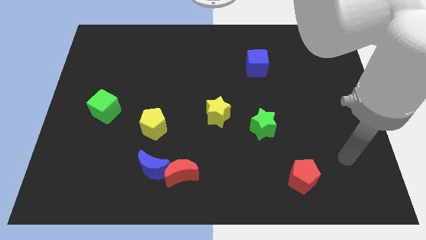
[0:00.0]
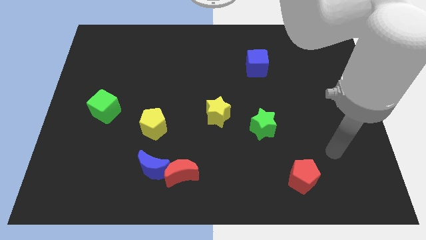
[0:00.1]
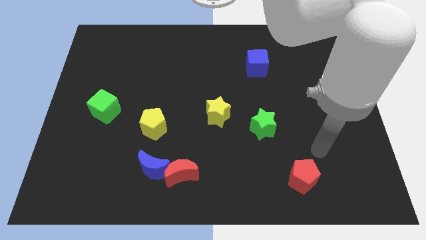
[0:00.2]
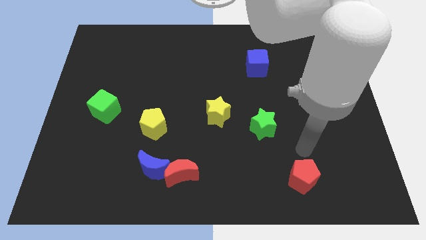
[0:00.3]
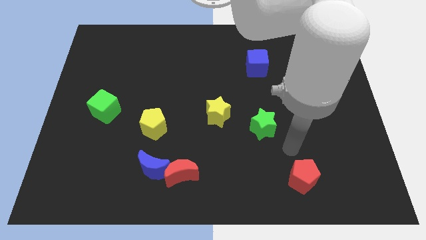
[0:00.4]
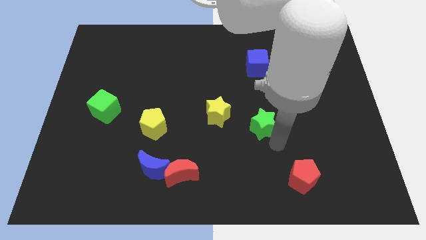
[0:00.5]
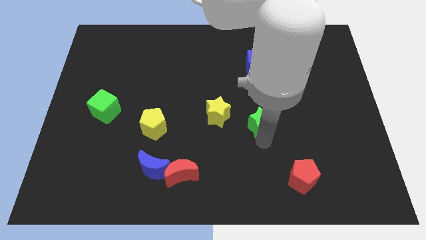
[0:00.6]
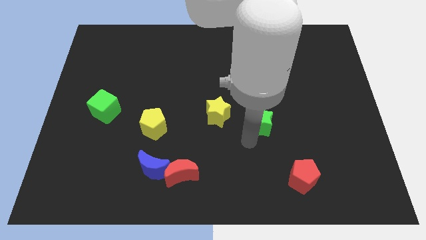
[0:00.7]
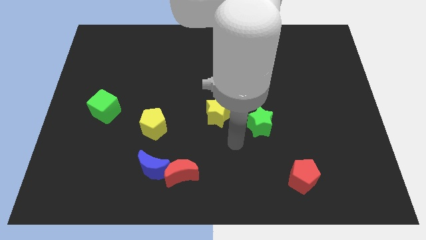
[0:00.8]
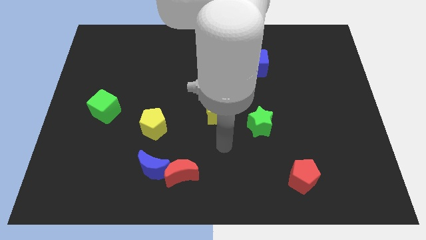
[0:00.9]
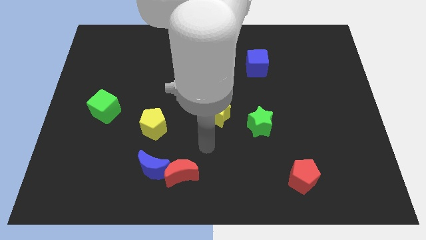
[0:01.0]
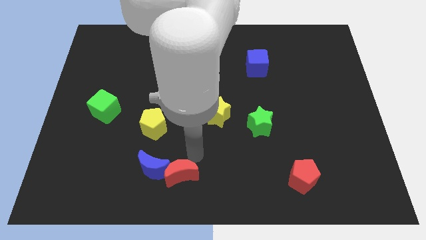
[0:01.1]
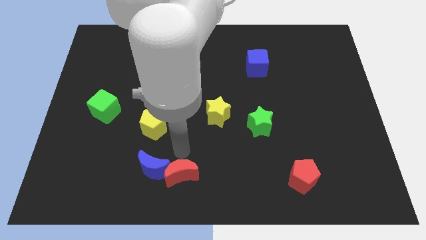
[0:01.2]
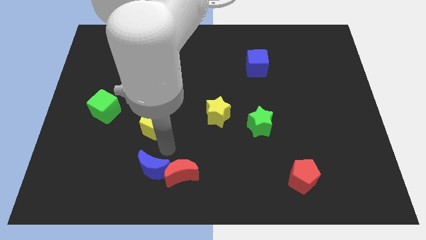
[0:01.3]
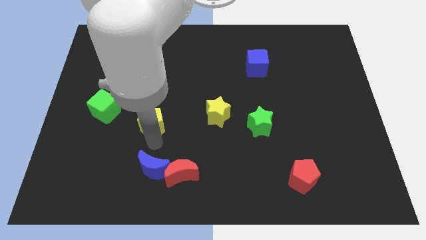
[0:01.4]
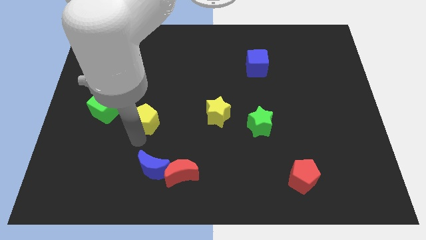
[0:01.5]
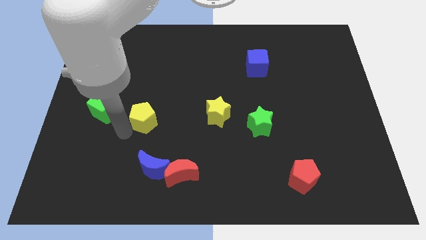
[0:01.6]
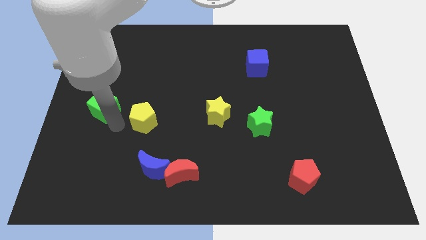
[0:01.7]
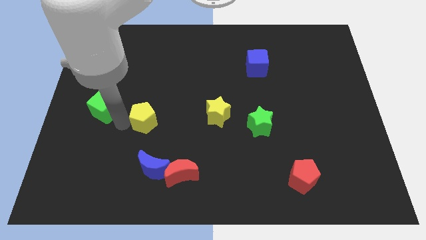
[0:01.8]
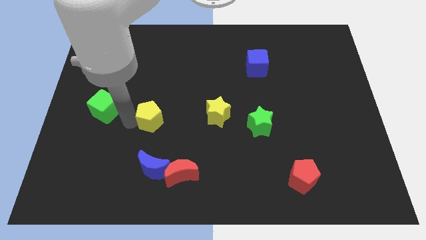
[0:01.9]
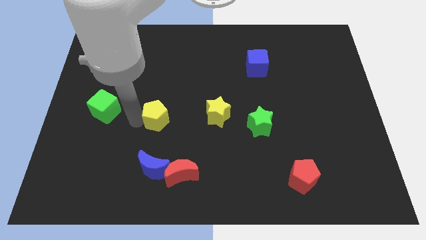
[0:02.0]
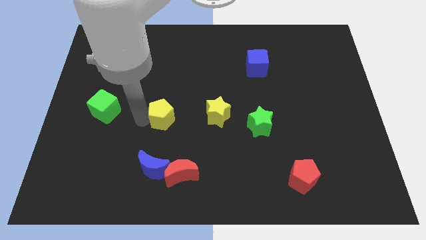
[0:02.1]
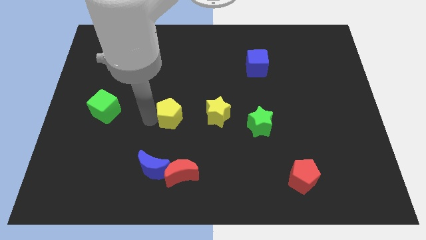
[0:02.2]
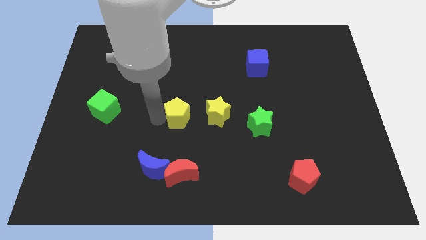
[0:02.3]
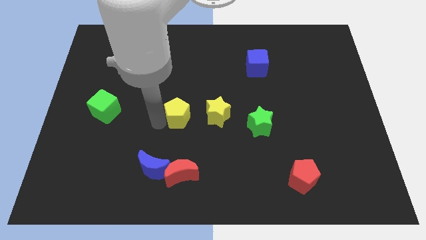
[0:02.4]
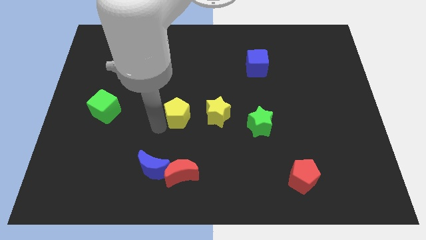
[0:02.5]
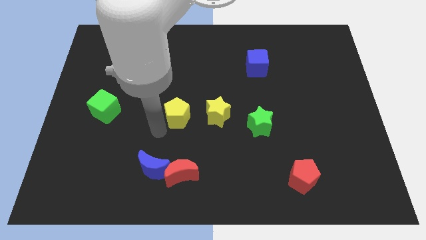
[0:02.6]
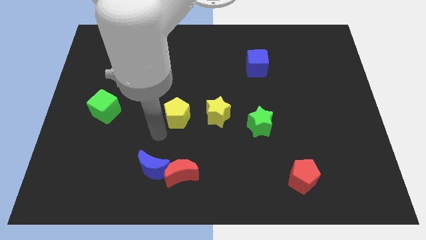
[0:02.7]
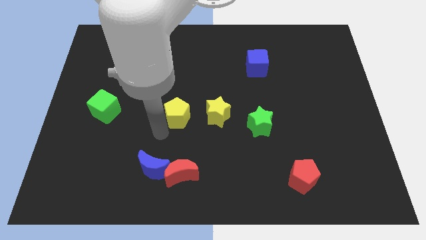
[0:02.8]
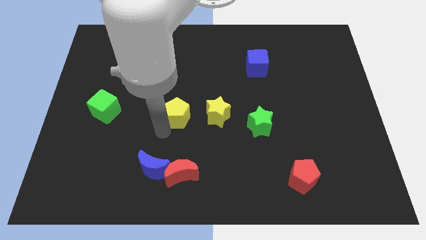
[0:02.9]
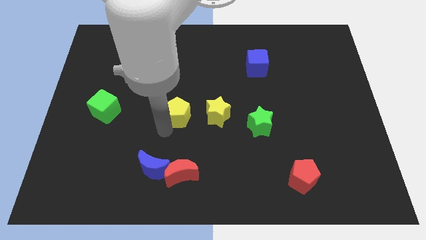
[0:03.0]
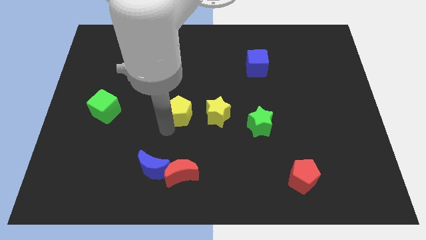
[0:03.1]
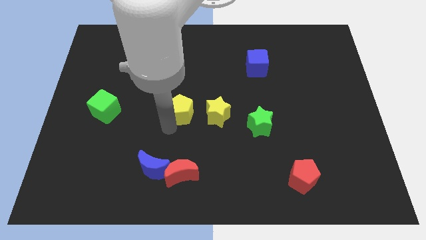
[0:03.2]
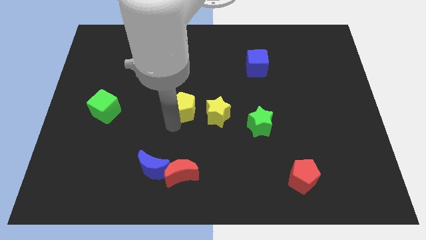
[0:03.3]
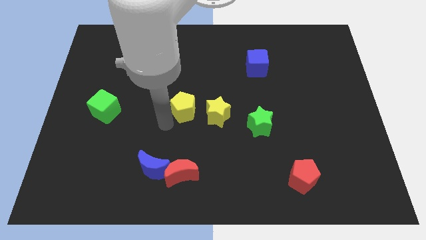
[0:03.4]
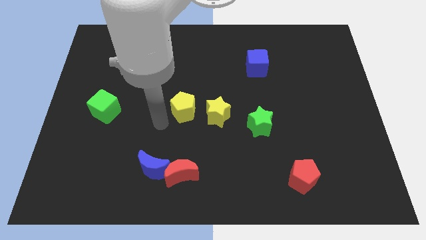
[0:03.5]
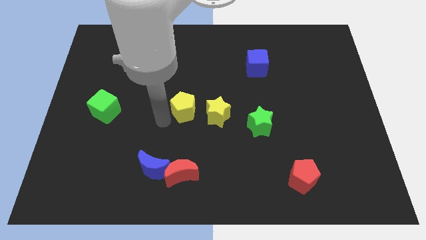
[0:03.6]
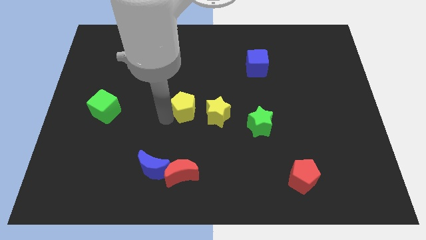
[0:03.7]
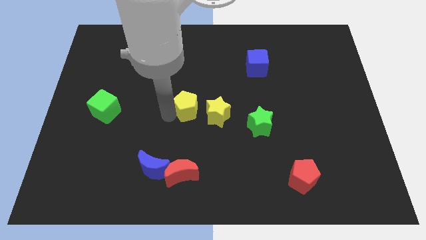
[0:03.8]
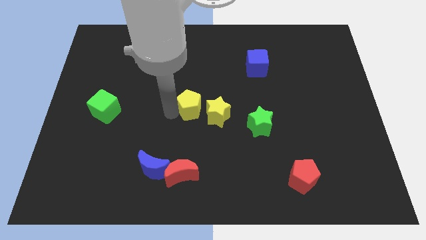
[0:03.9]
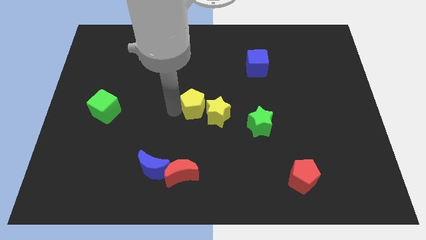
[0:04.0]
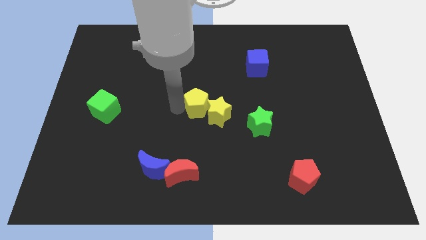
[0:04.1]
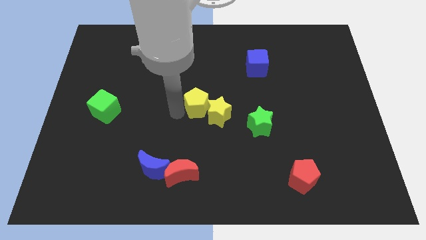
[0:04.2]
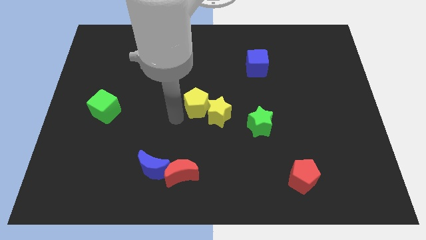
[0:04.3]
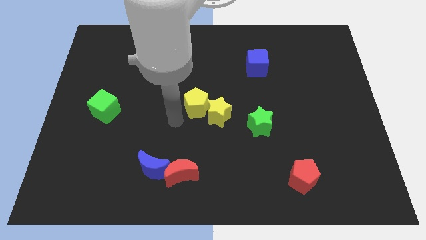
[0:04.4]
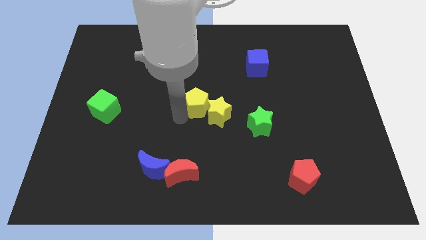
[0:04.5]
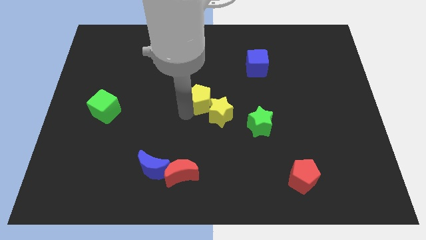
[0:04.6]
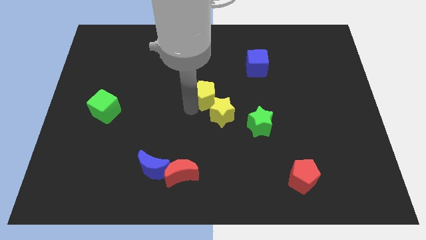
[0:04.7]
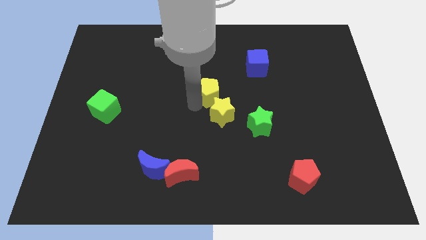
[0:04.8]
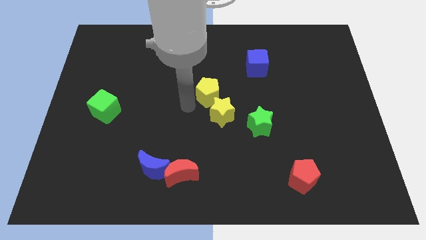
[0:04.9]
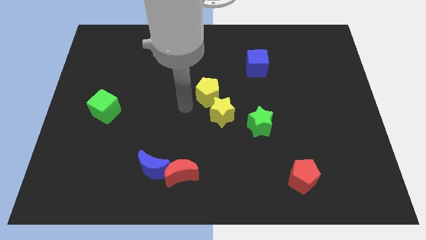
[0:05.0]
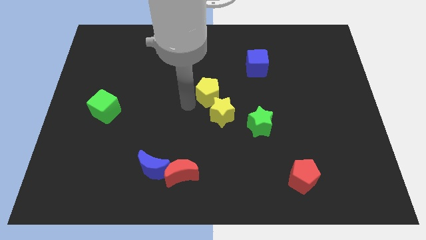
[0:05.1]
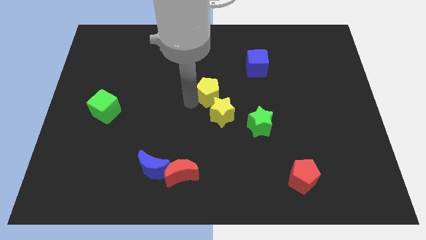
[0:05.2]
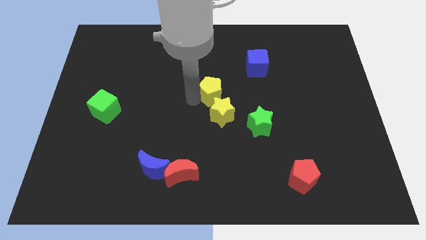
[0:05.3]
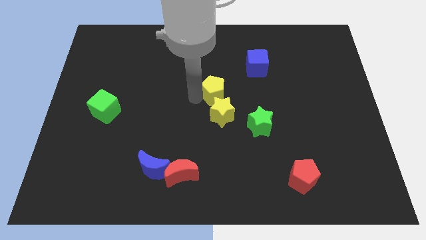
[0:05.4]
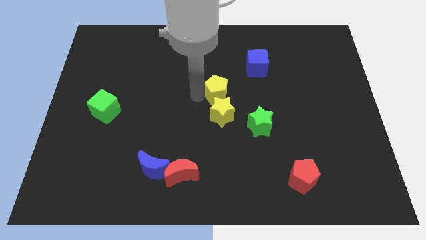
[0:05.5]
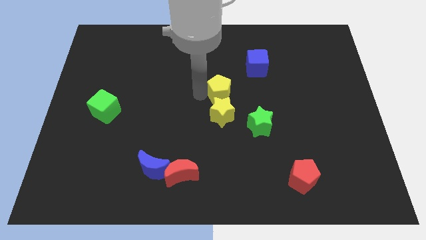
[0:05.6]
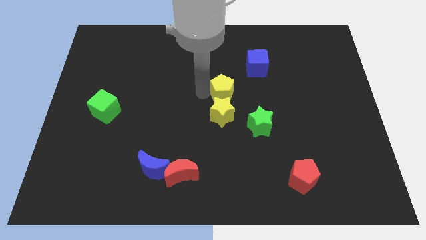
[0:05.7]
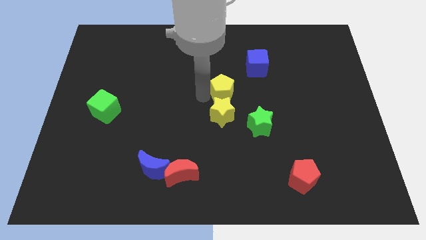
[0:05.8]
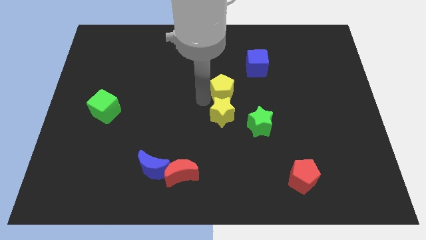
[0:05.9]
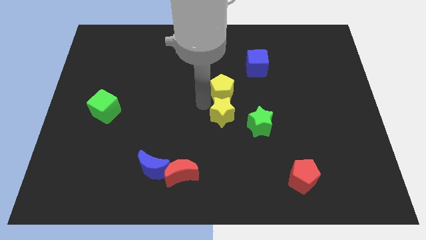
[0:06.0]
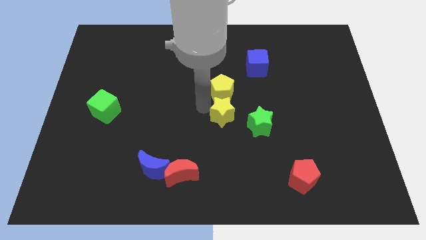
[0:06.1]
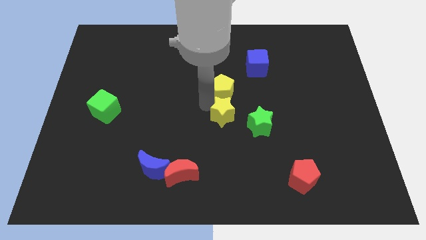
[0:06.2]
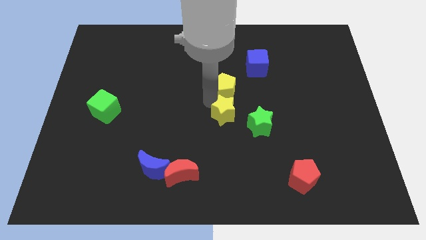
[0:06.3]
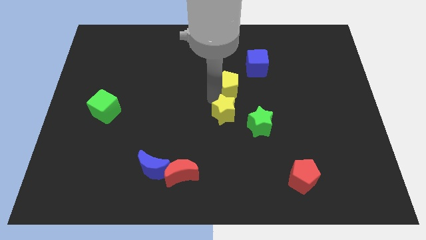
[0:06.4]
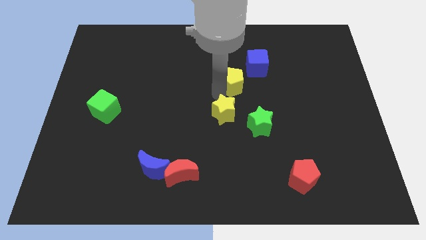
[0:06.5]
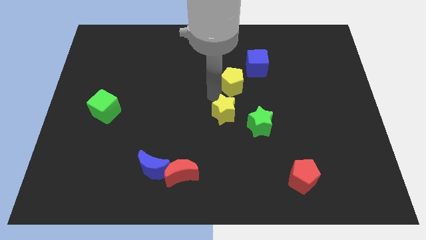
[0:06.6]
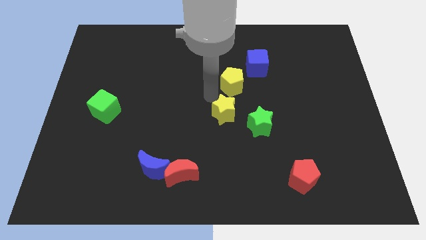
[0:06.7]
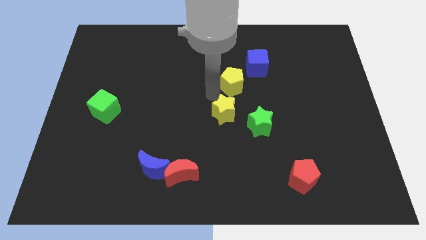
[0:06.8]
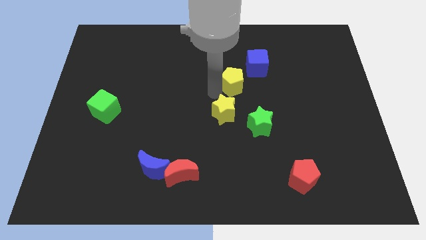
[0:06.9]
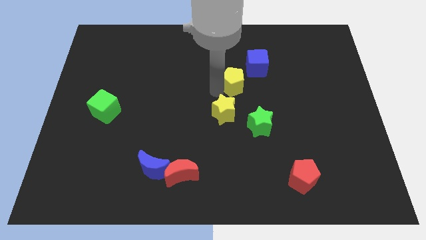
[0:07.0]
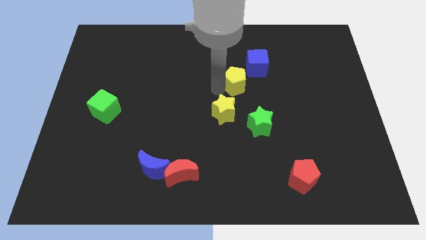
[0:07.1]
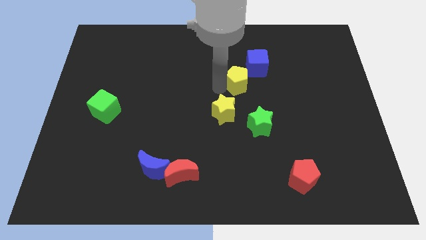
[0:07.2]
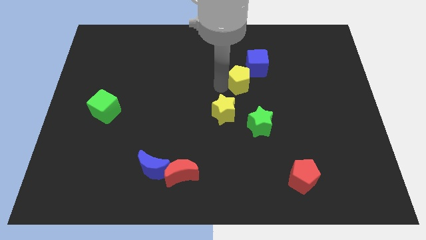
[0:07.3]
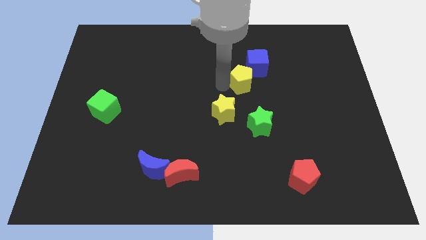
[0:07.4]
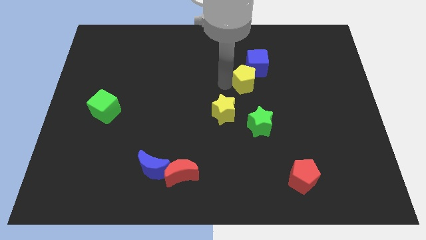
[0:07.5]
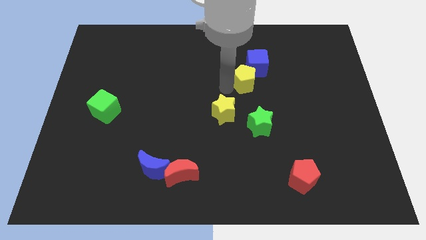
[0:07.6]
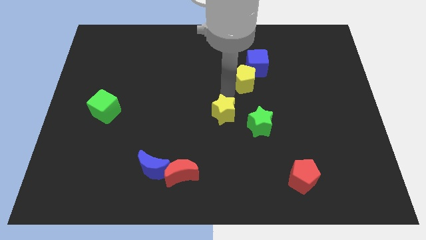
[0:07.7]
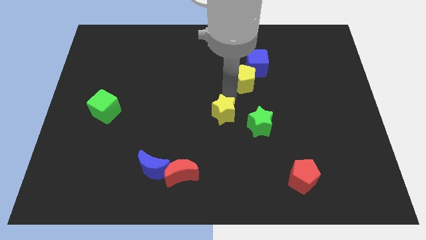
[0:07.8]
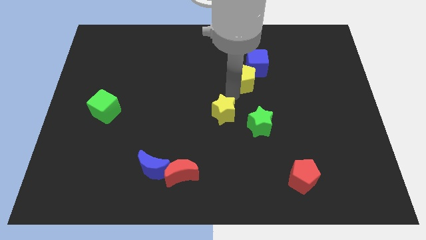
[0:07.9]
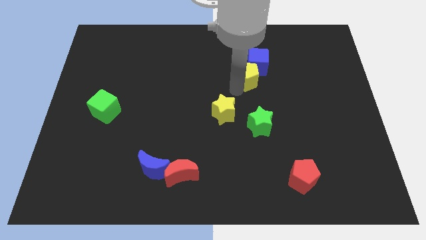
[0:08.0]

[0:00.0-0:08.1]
slide the yellow pentagon to the blue cube
